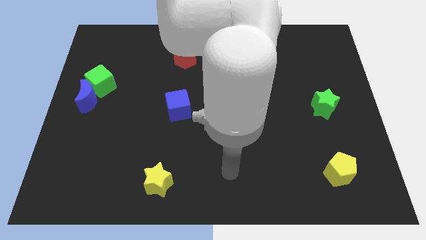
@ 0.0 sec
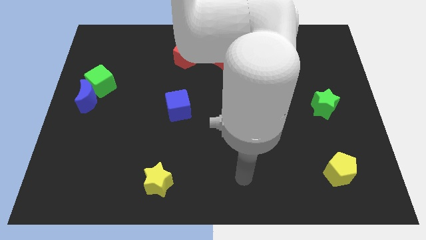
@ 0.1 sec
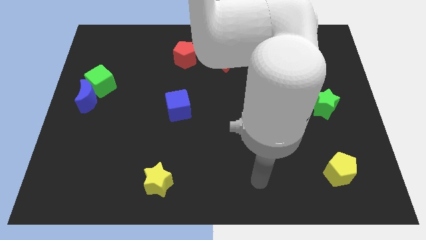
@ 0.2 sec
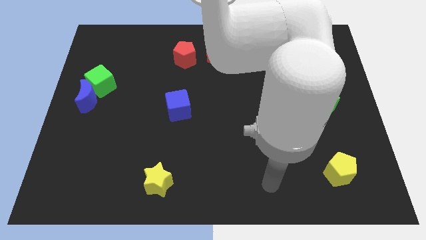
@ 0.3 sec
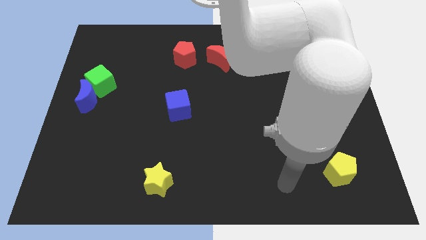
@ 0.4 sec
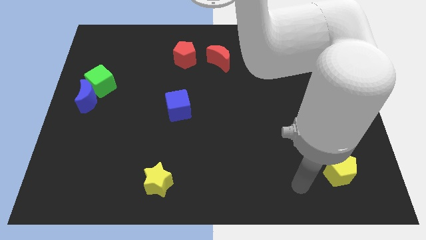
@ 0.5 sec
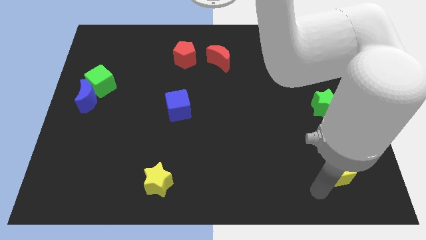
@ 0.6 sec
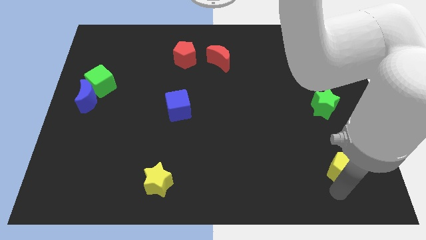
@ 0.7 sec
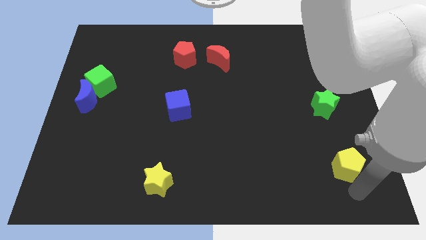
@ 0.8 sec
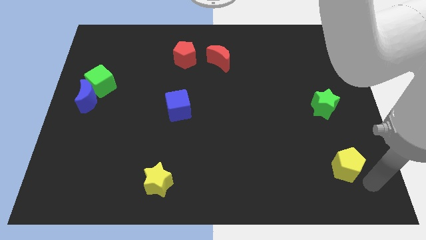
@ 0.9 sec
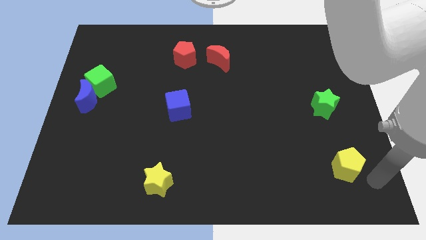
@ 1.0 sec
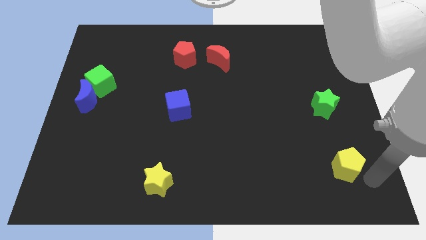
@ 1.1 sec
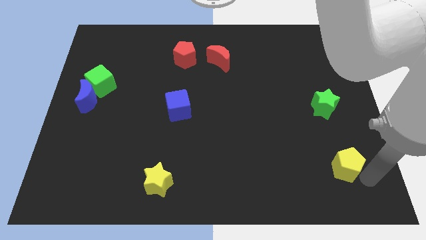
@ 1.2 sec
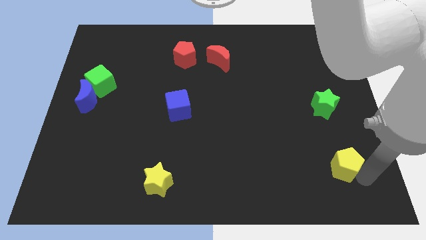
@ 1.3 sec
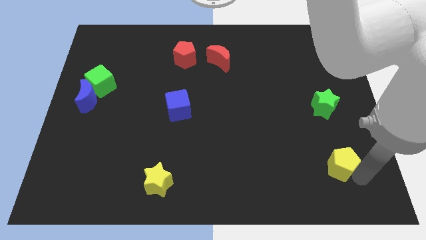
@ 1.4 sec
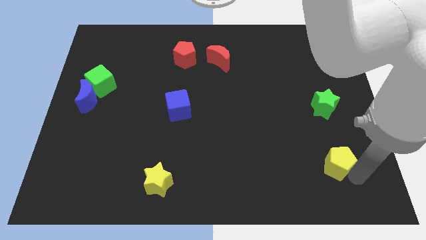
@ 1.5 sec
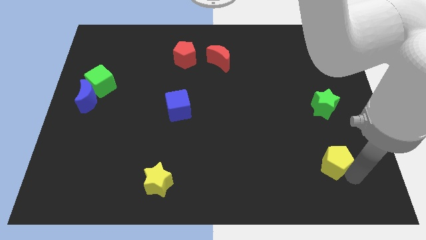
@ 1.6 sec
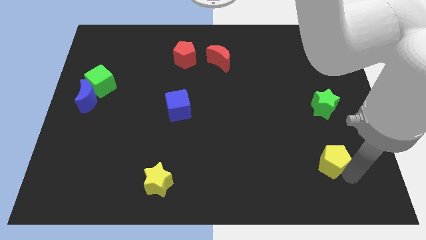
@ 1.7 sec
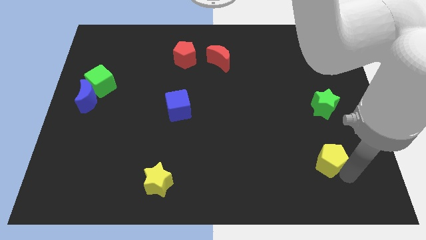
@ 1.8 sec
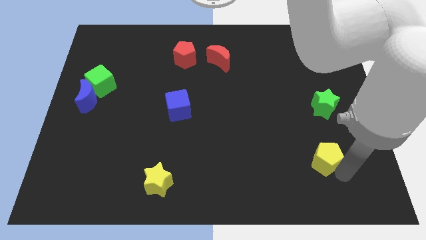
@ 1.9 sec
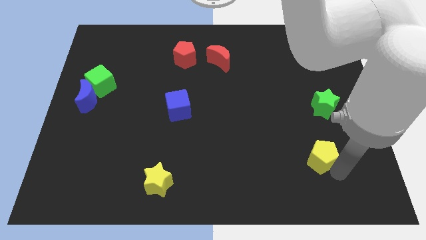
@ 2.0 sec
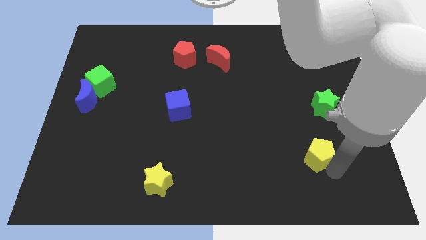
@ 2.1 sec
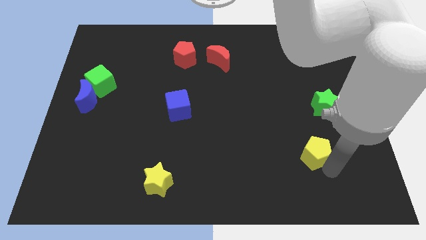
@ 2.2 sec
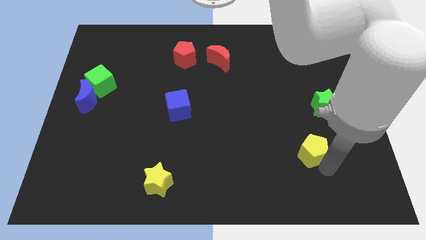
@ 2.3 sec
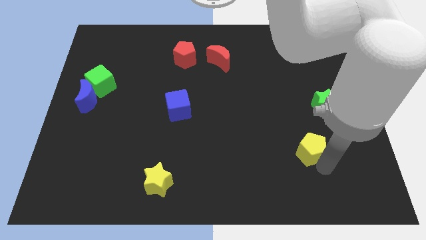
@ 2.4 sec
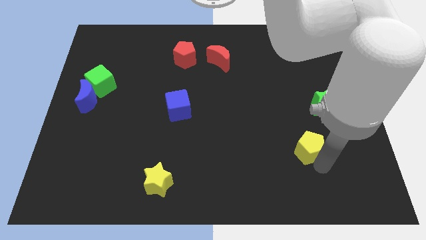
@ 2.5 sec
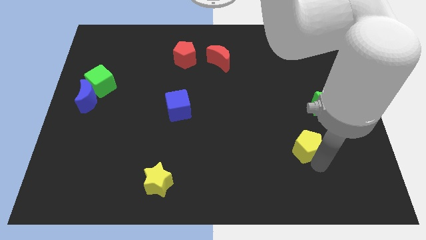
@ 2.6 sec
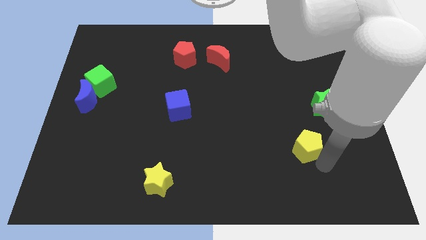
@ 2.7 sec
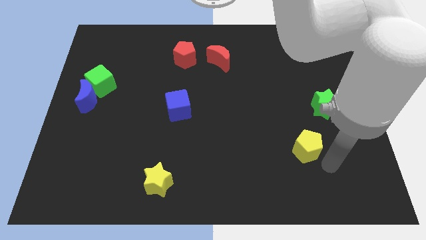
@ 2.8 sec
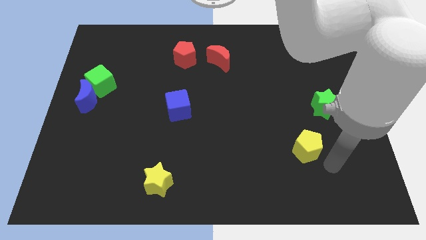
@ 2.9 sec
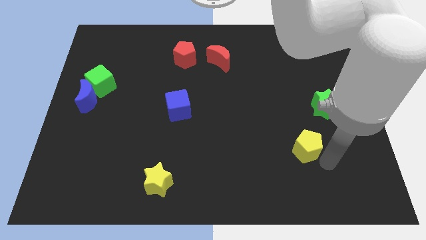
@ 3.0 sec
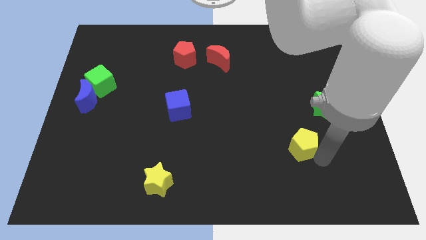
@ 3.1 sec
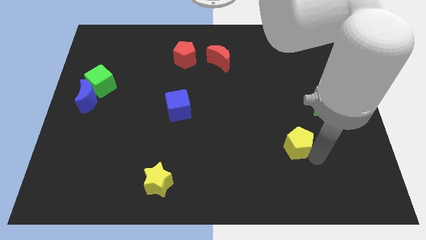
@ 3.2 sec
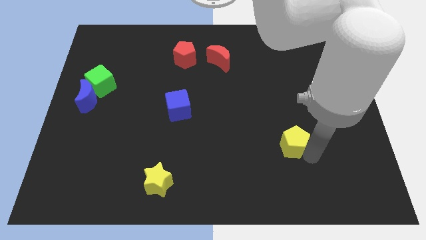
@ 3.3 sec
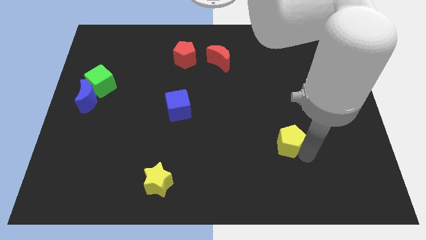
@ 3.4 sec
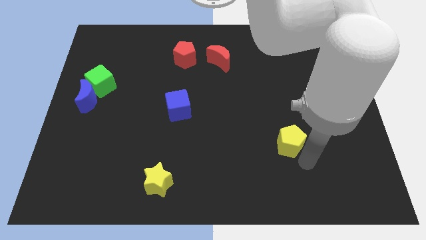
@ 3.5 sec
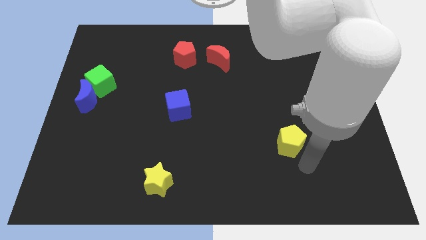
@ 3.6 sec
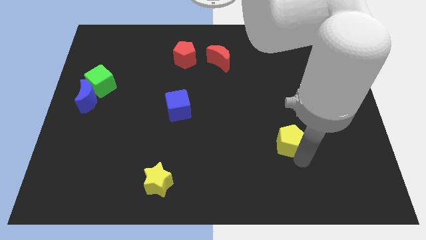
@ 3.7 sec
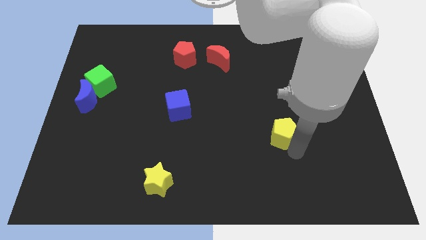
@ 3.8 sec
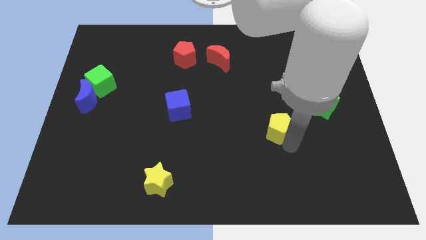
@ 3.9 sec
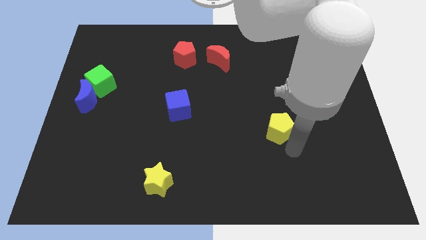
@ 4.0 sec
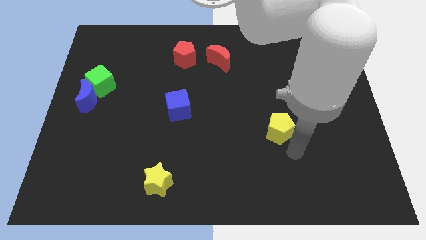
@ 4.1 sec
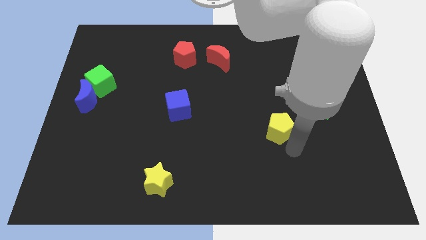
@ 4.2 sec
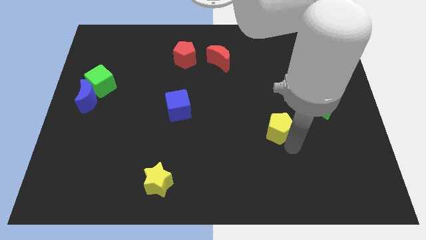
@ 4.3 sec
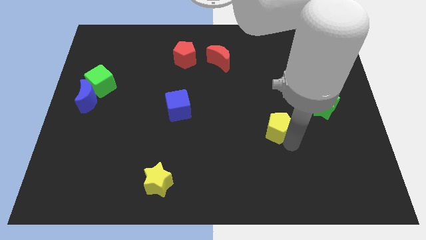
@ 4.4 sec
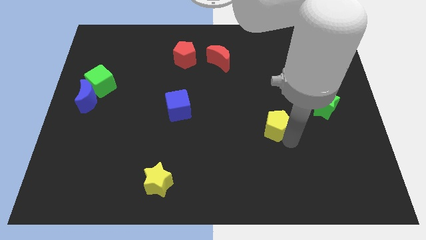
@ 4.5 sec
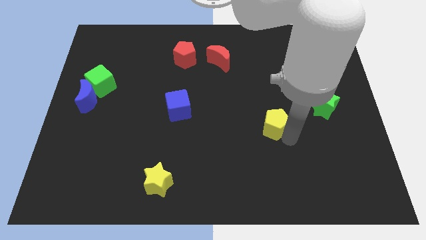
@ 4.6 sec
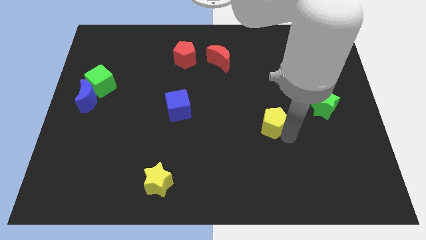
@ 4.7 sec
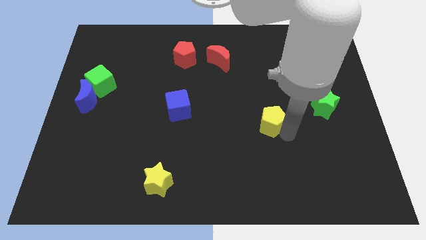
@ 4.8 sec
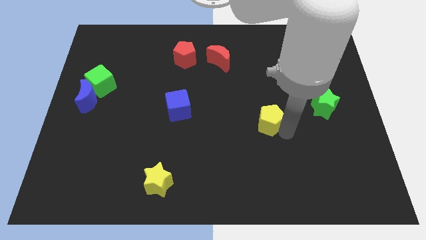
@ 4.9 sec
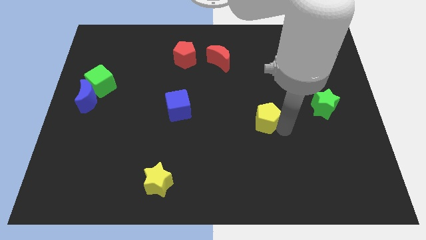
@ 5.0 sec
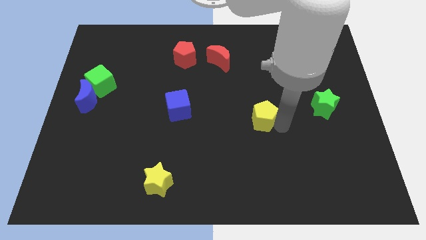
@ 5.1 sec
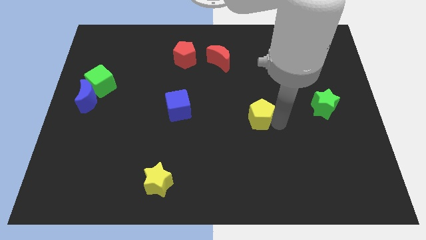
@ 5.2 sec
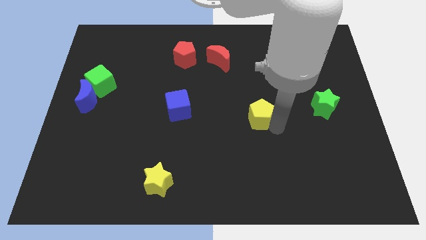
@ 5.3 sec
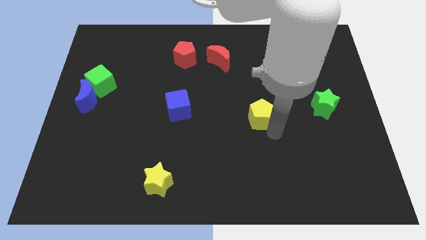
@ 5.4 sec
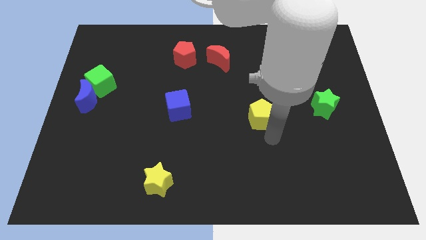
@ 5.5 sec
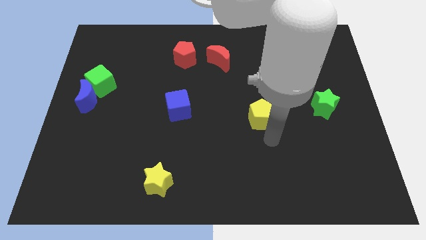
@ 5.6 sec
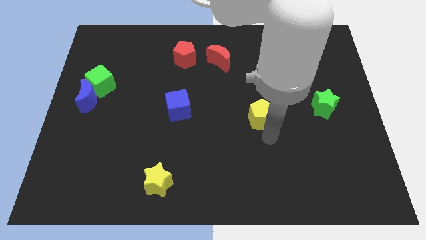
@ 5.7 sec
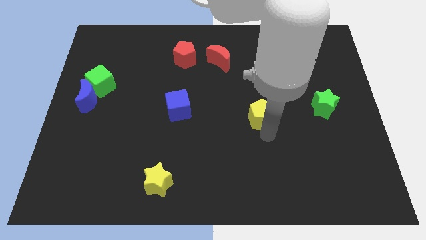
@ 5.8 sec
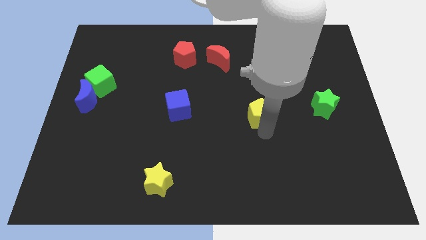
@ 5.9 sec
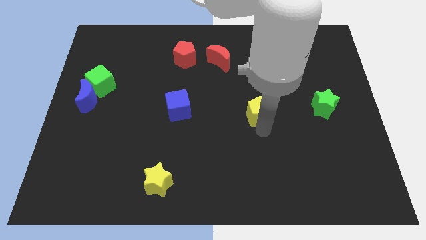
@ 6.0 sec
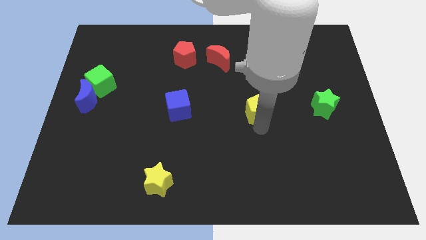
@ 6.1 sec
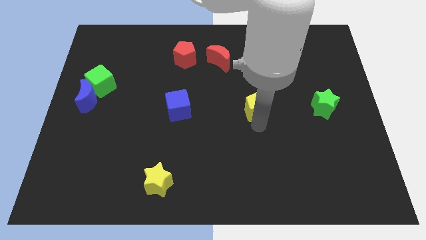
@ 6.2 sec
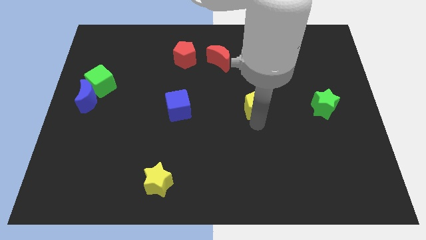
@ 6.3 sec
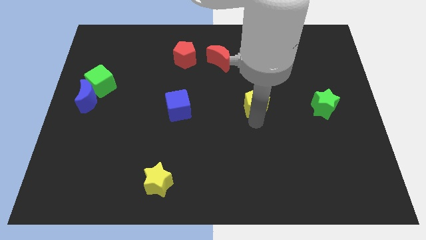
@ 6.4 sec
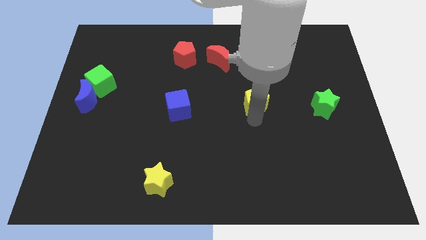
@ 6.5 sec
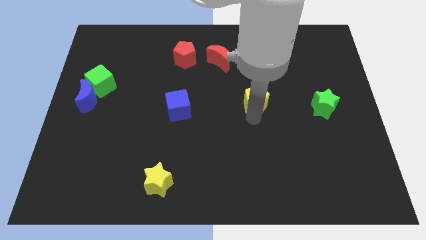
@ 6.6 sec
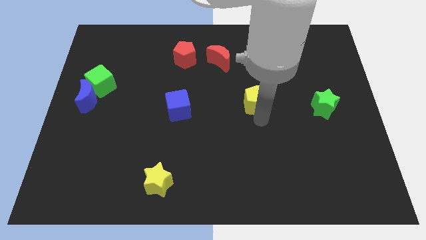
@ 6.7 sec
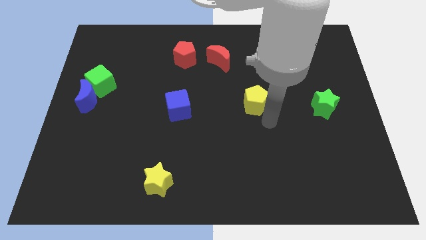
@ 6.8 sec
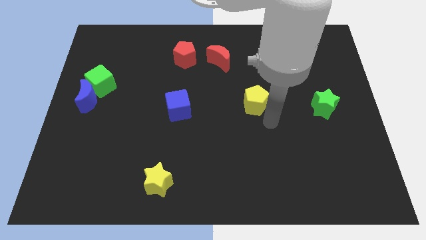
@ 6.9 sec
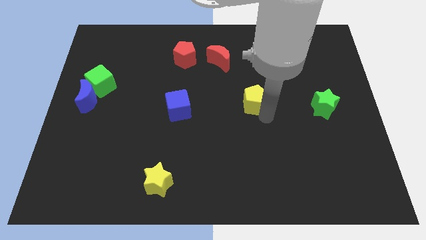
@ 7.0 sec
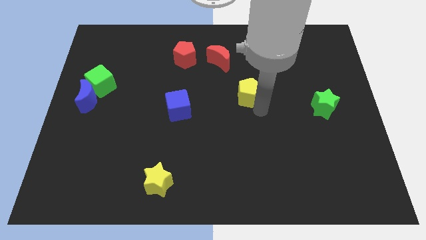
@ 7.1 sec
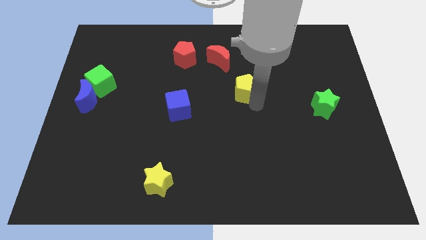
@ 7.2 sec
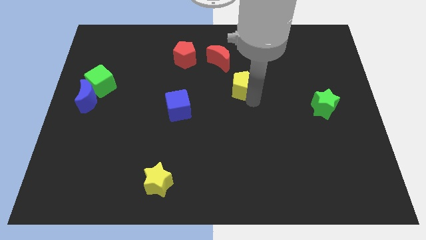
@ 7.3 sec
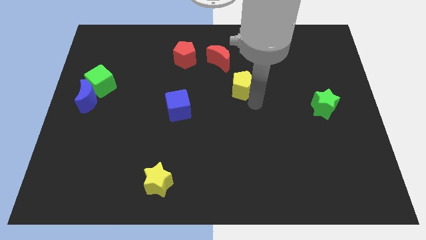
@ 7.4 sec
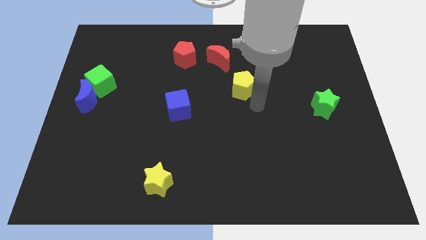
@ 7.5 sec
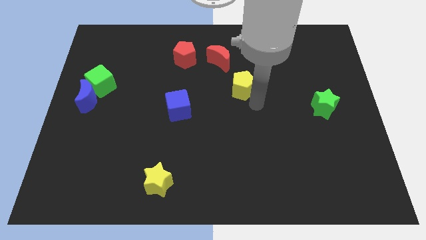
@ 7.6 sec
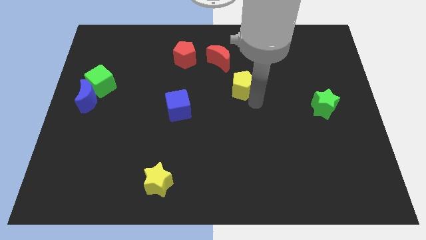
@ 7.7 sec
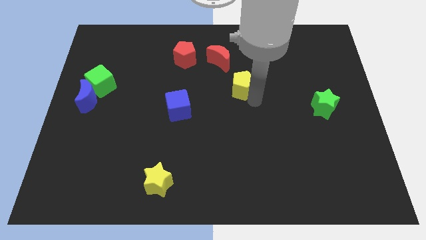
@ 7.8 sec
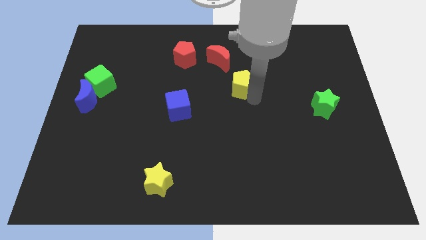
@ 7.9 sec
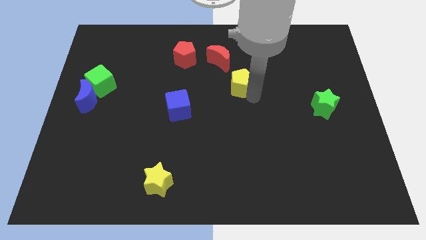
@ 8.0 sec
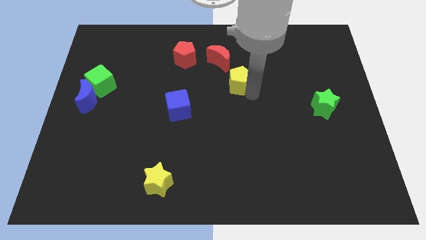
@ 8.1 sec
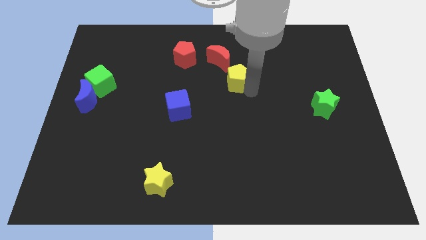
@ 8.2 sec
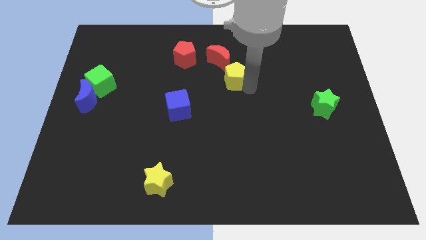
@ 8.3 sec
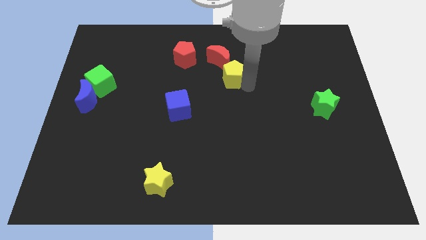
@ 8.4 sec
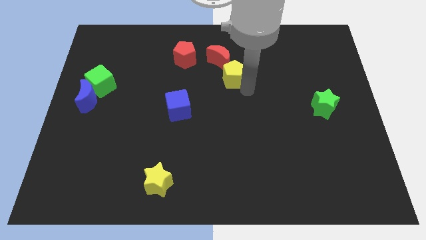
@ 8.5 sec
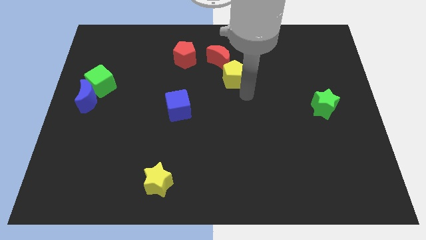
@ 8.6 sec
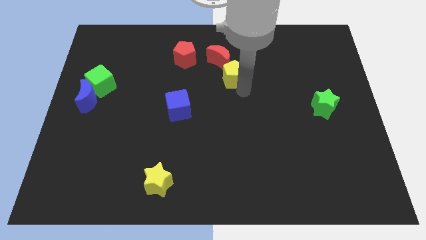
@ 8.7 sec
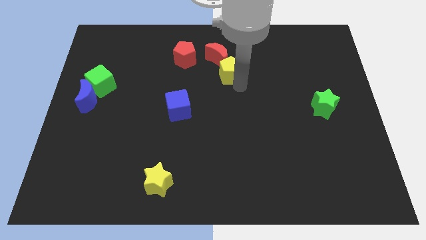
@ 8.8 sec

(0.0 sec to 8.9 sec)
slide the yellow pentagon next to the red moon
